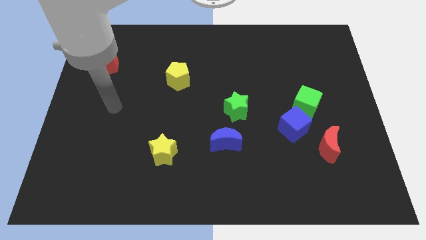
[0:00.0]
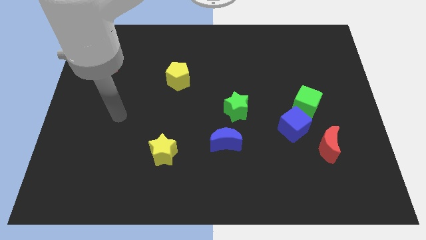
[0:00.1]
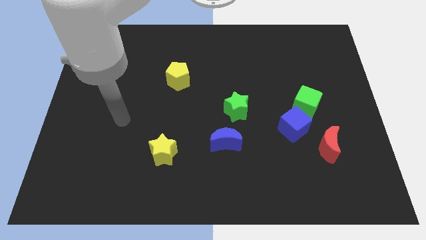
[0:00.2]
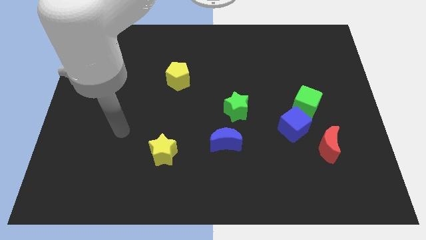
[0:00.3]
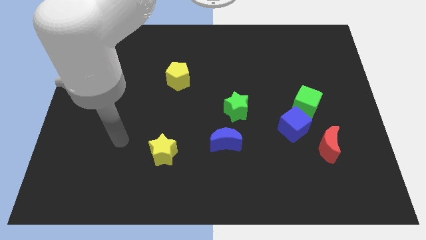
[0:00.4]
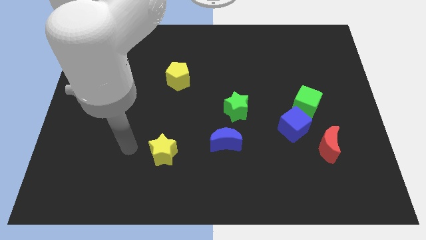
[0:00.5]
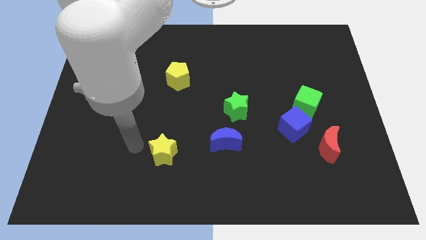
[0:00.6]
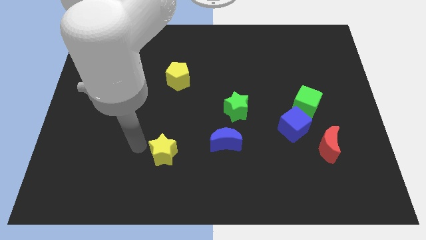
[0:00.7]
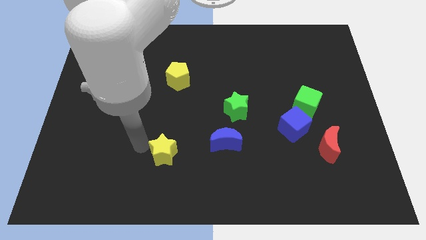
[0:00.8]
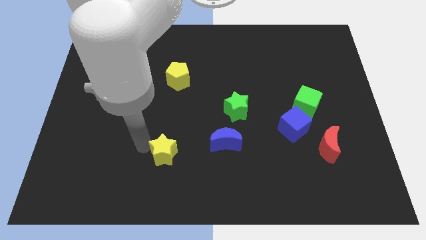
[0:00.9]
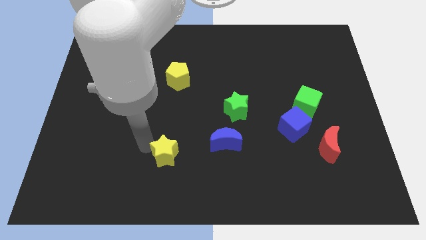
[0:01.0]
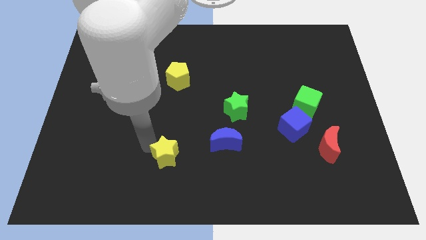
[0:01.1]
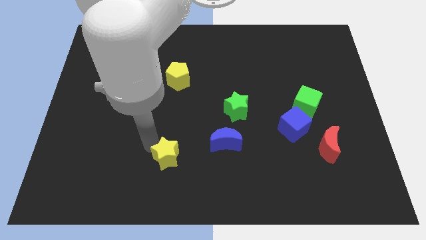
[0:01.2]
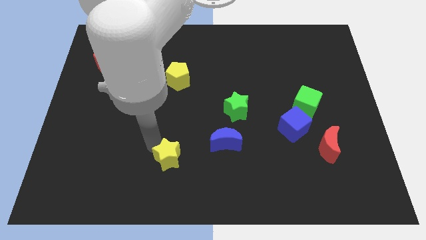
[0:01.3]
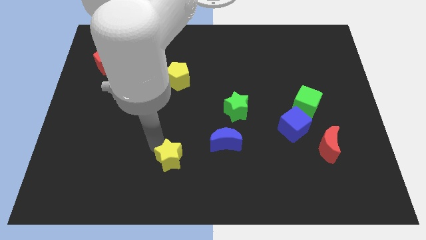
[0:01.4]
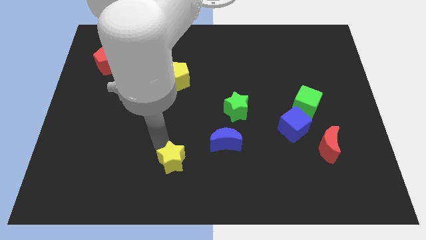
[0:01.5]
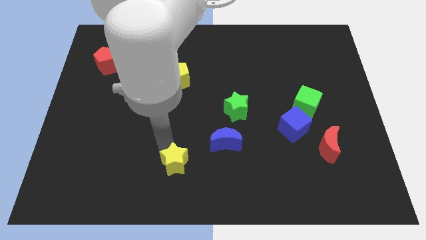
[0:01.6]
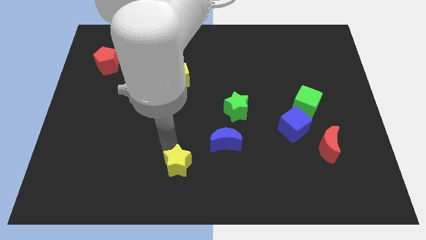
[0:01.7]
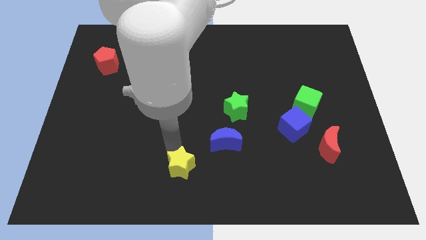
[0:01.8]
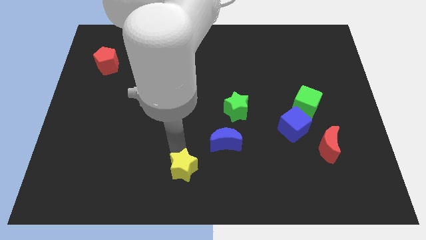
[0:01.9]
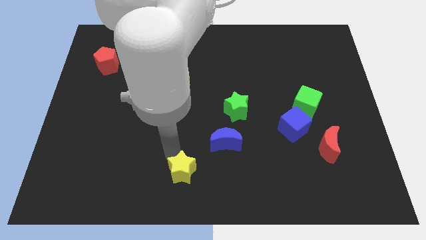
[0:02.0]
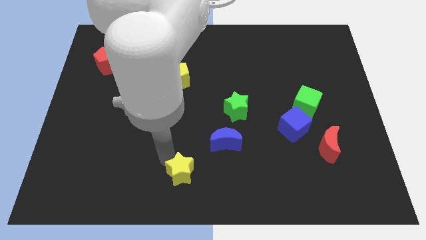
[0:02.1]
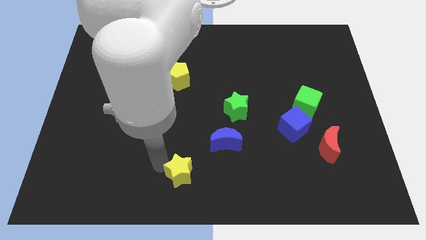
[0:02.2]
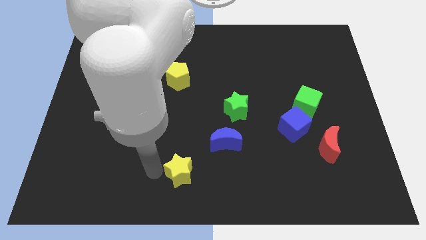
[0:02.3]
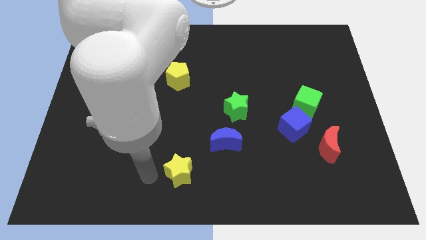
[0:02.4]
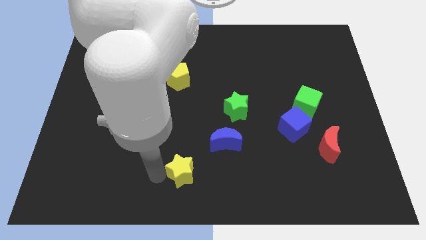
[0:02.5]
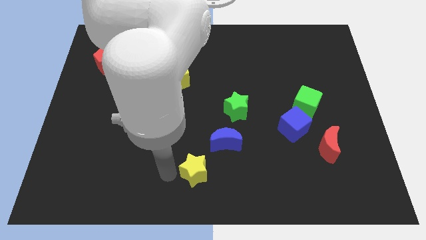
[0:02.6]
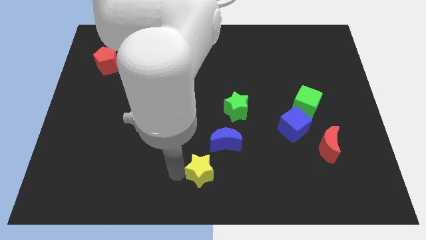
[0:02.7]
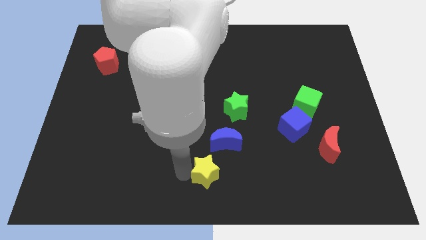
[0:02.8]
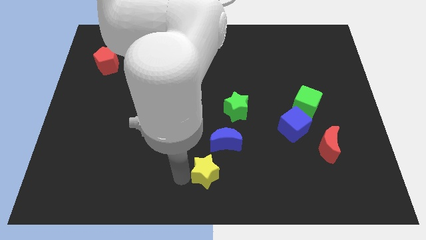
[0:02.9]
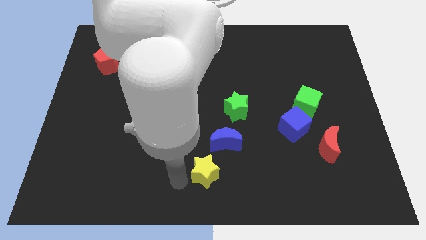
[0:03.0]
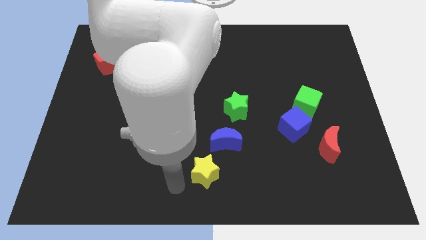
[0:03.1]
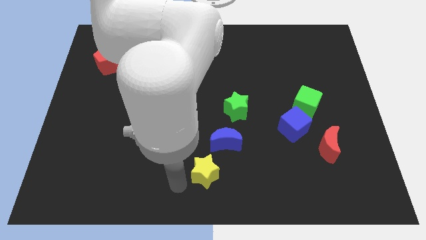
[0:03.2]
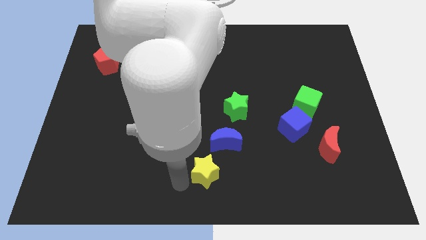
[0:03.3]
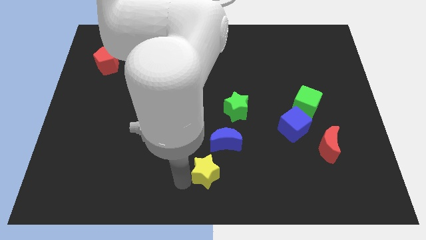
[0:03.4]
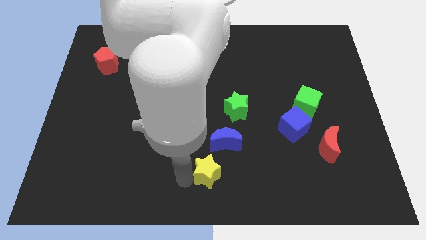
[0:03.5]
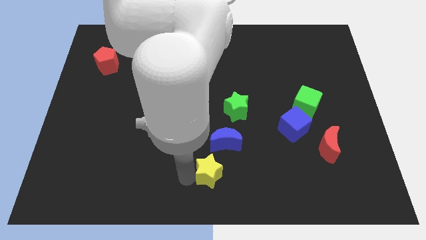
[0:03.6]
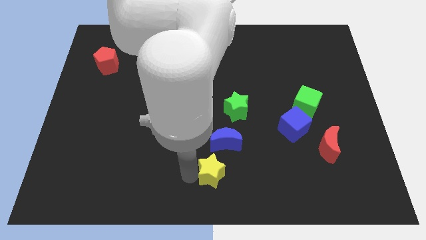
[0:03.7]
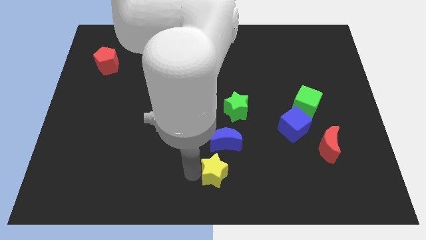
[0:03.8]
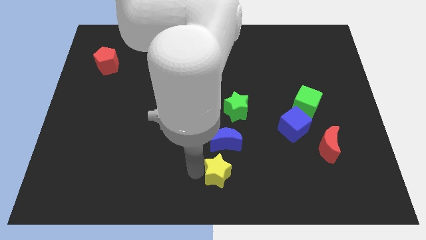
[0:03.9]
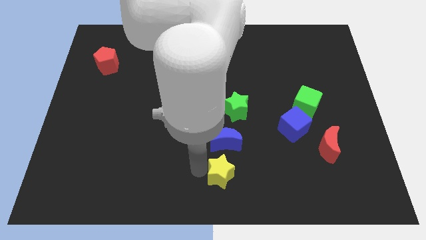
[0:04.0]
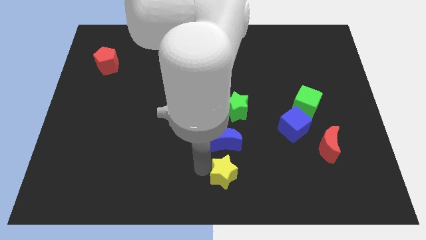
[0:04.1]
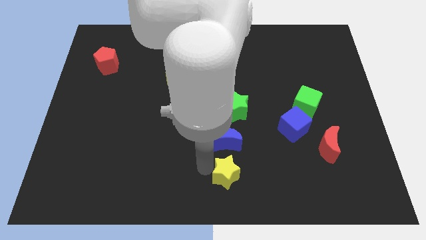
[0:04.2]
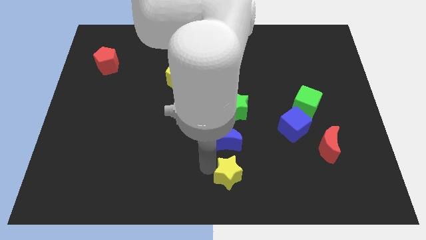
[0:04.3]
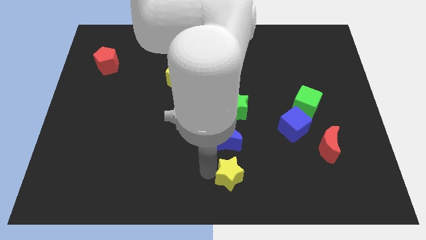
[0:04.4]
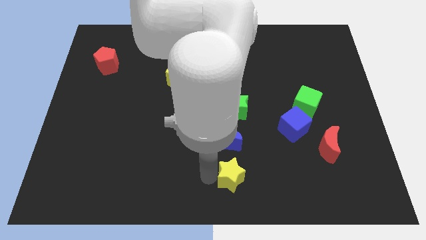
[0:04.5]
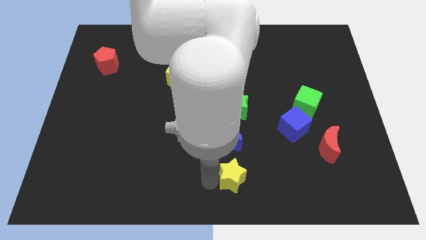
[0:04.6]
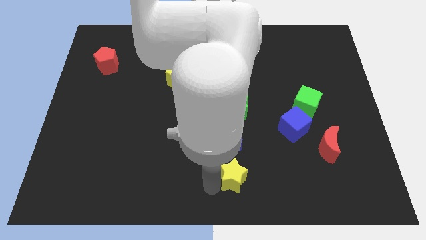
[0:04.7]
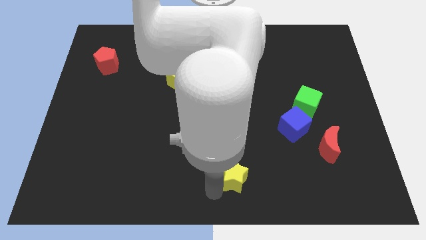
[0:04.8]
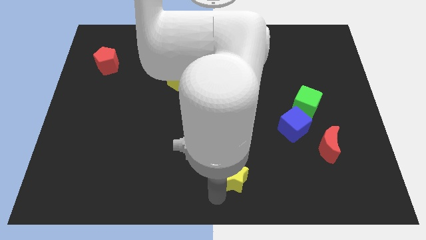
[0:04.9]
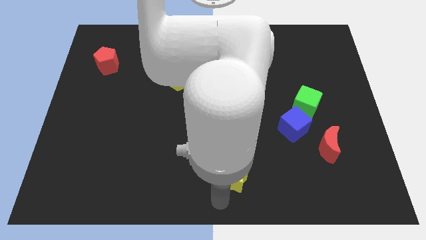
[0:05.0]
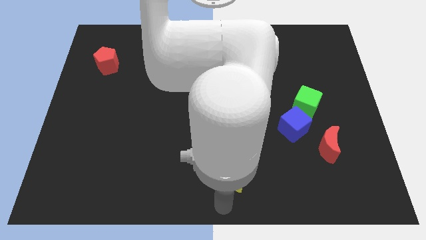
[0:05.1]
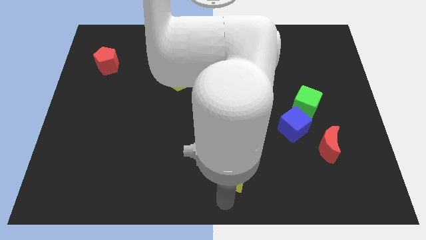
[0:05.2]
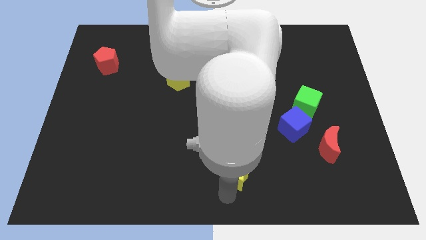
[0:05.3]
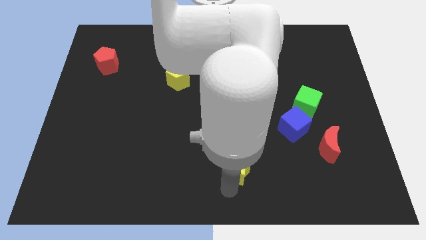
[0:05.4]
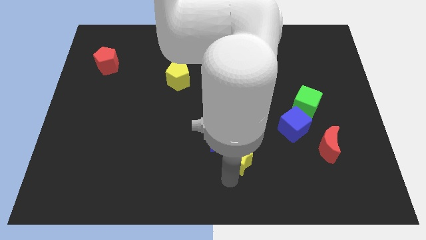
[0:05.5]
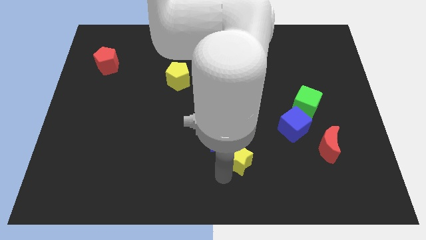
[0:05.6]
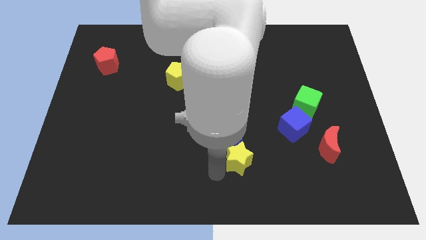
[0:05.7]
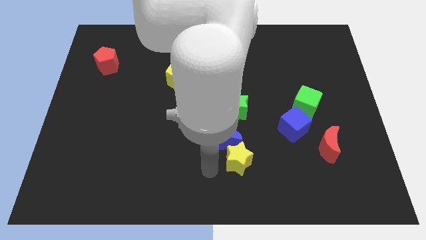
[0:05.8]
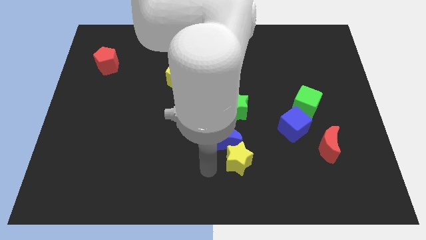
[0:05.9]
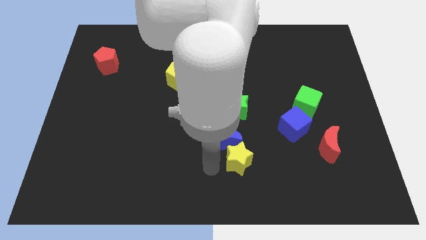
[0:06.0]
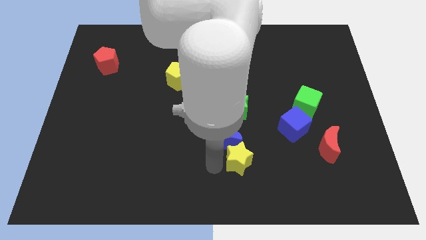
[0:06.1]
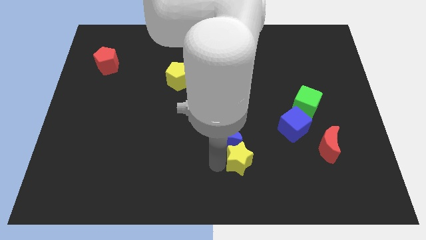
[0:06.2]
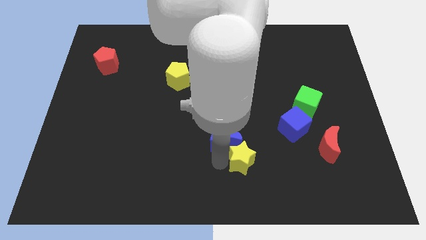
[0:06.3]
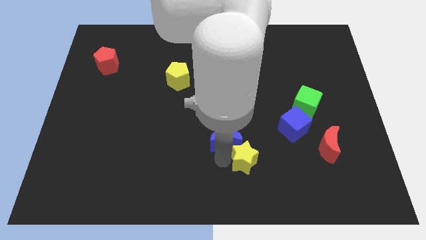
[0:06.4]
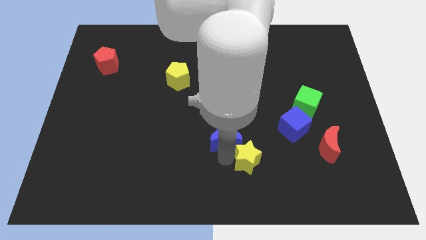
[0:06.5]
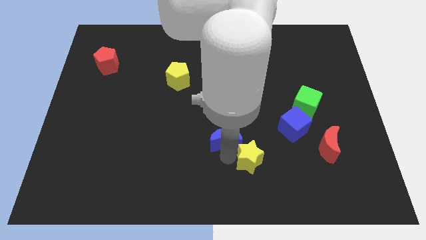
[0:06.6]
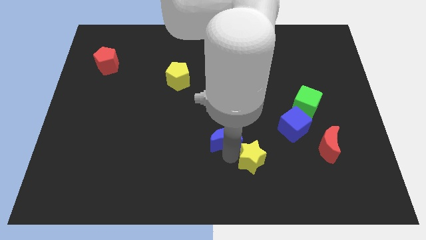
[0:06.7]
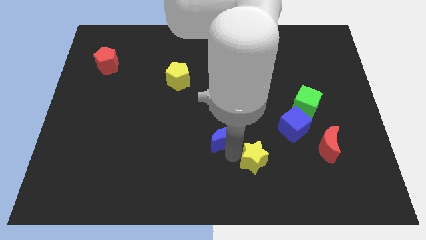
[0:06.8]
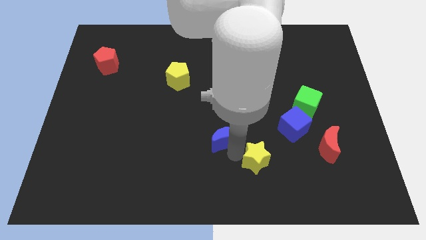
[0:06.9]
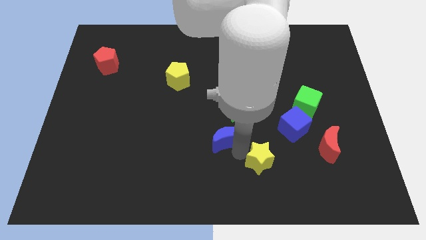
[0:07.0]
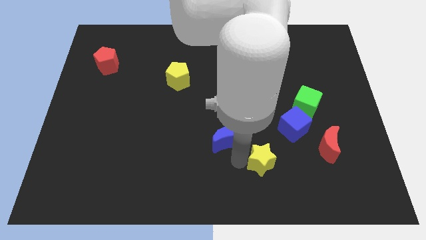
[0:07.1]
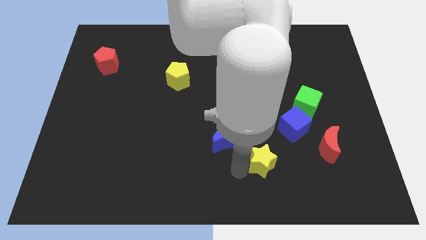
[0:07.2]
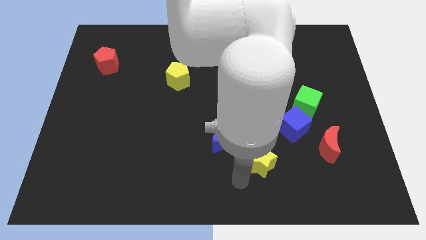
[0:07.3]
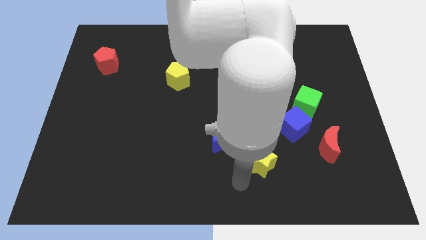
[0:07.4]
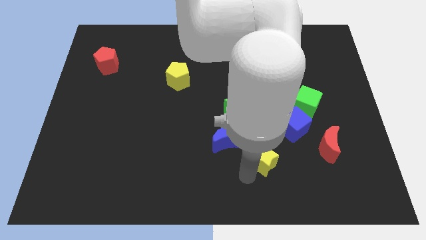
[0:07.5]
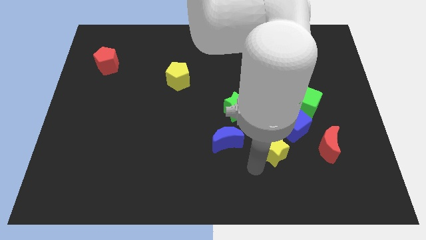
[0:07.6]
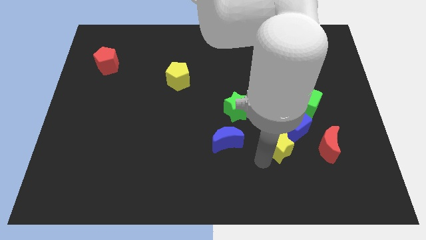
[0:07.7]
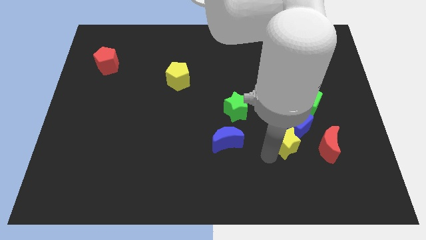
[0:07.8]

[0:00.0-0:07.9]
put the yellow star close to the blue cube
